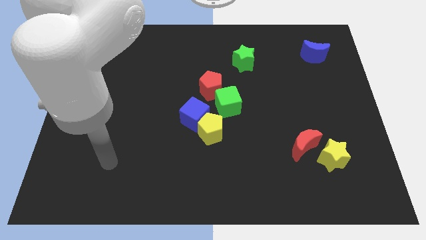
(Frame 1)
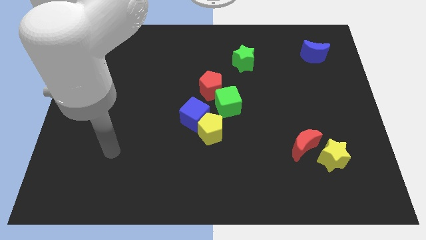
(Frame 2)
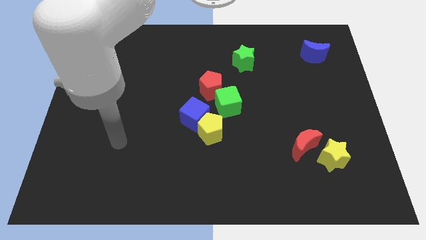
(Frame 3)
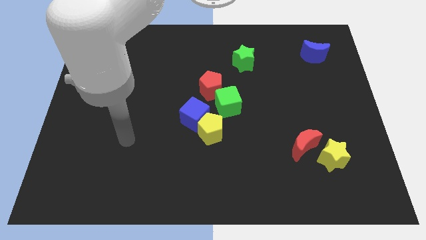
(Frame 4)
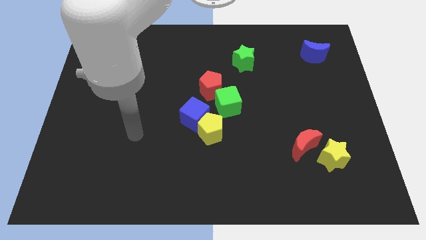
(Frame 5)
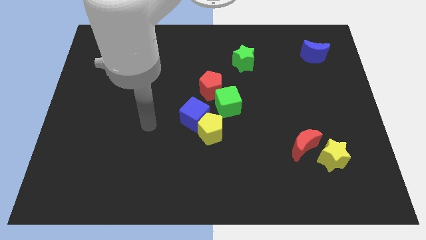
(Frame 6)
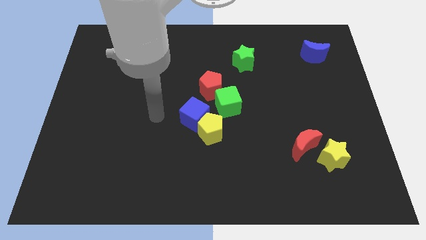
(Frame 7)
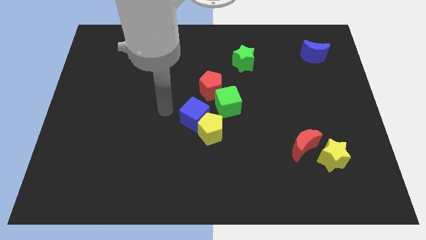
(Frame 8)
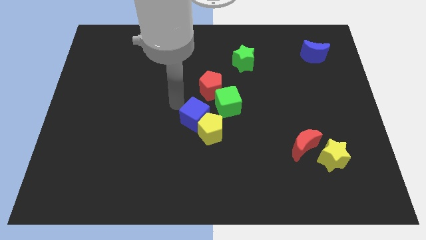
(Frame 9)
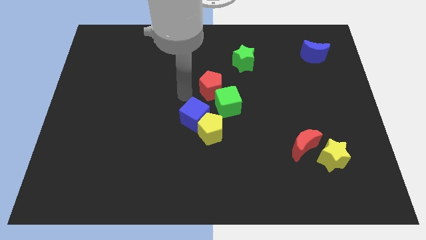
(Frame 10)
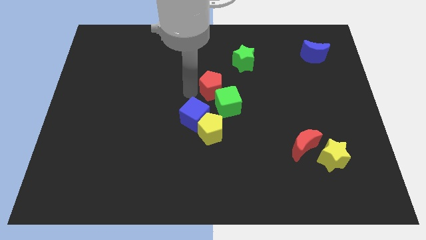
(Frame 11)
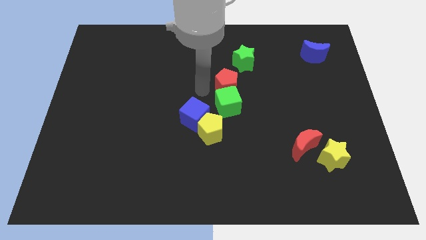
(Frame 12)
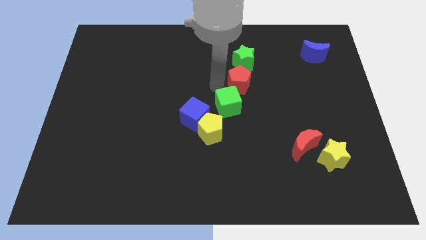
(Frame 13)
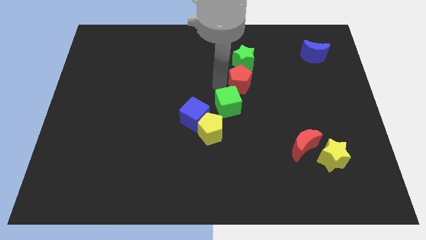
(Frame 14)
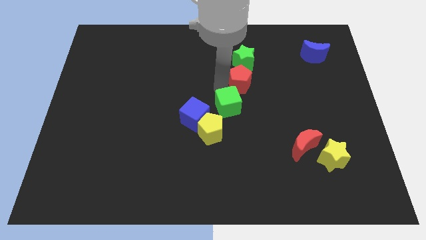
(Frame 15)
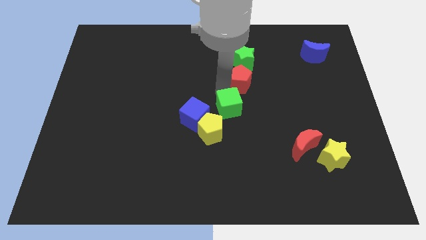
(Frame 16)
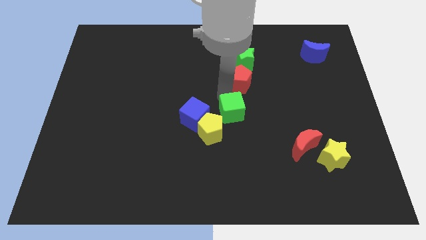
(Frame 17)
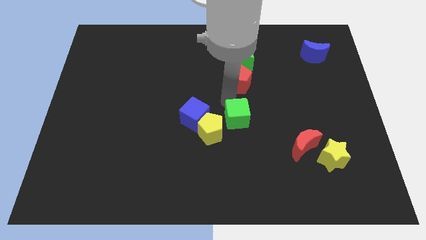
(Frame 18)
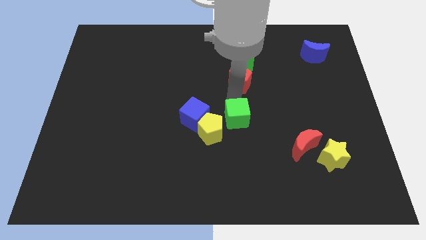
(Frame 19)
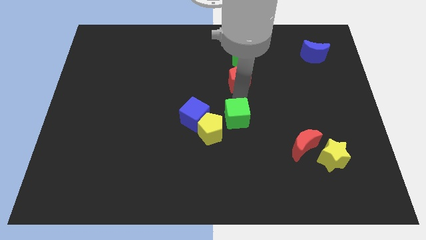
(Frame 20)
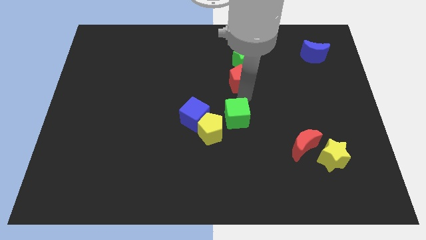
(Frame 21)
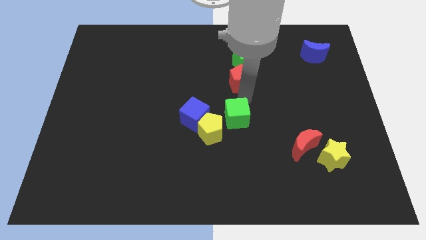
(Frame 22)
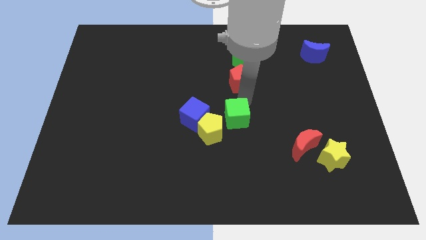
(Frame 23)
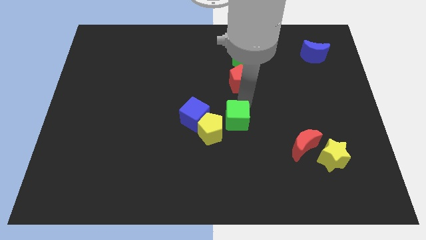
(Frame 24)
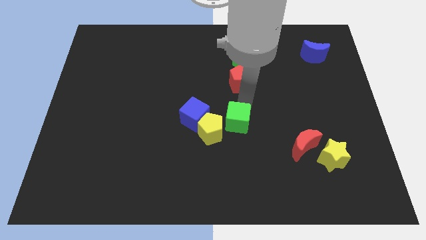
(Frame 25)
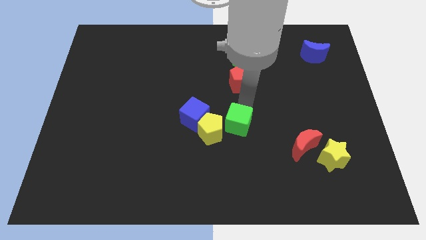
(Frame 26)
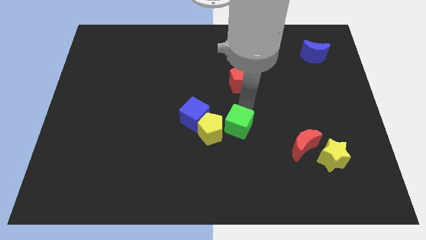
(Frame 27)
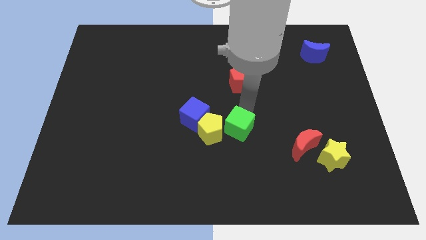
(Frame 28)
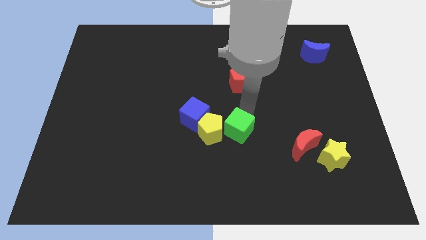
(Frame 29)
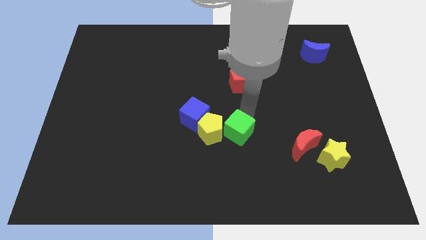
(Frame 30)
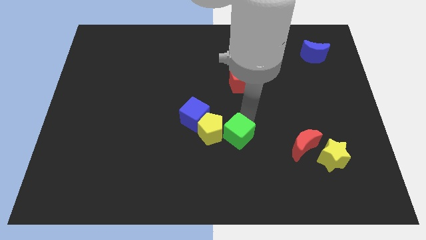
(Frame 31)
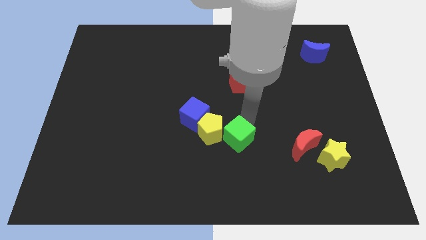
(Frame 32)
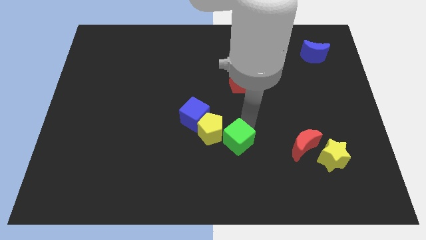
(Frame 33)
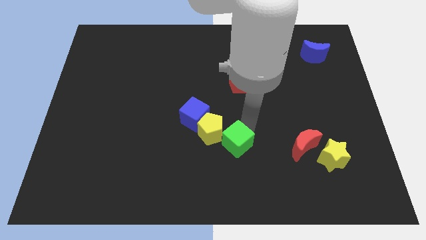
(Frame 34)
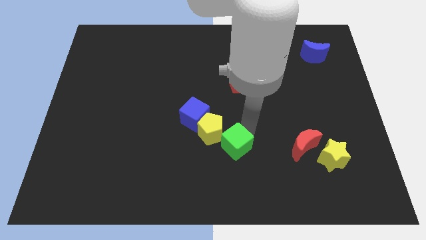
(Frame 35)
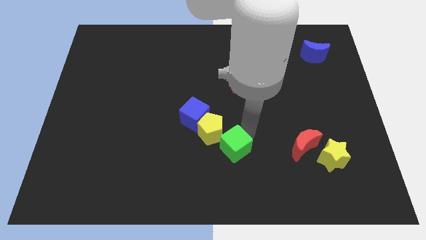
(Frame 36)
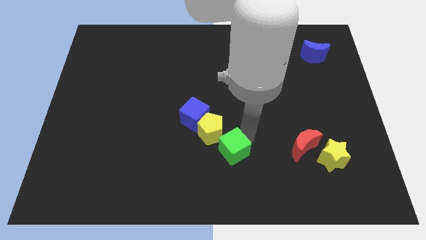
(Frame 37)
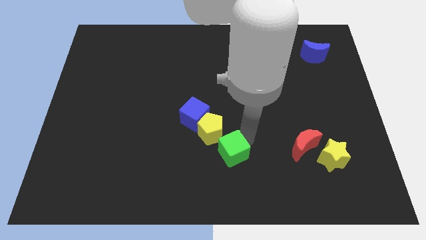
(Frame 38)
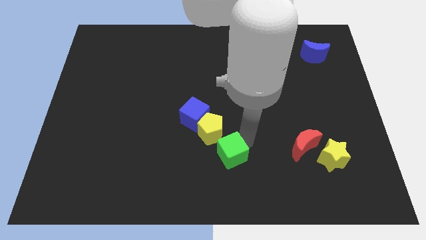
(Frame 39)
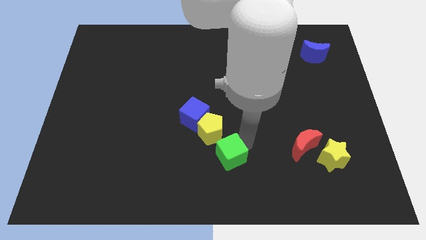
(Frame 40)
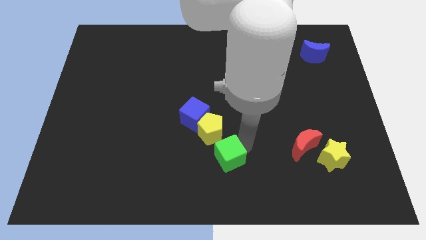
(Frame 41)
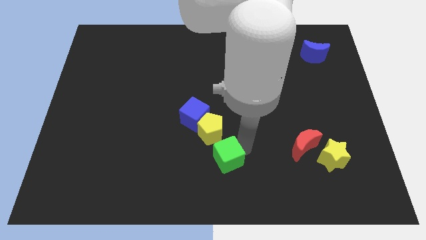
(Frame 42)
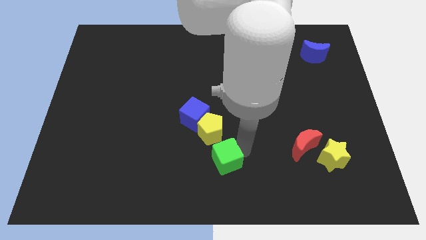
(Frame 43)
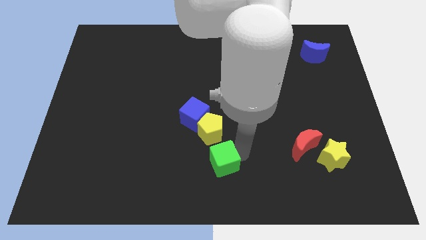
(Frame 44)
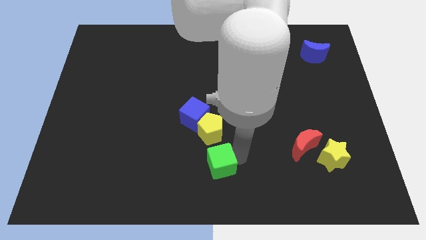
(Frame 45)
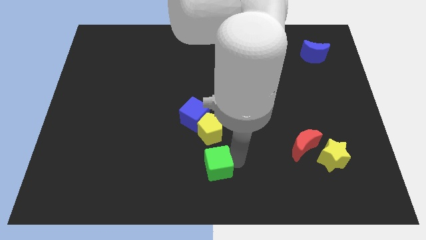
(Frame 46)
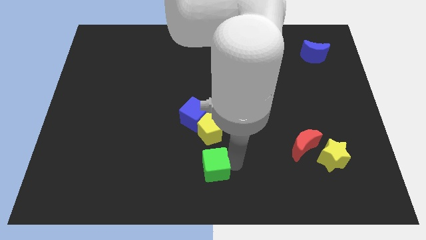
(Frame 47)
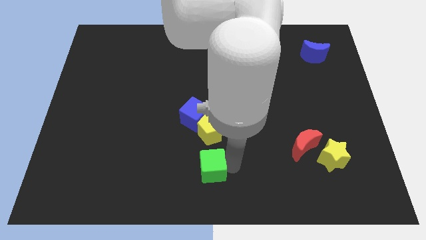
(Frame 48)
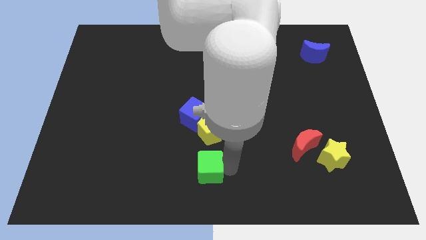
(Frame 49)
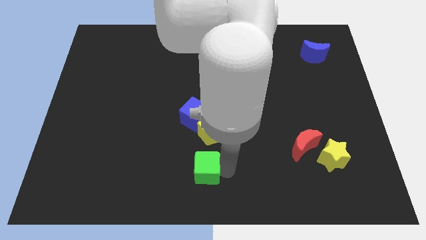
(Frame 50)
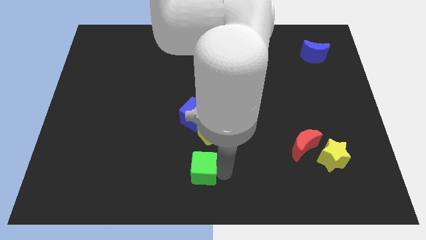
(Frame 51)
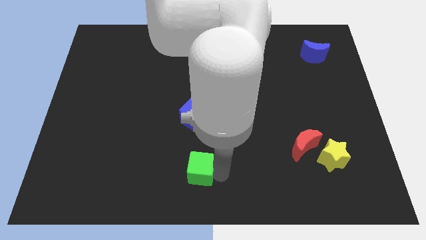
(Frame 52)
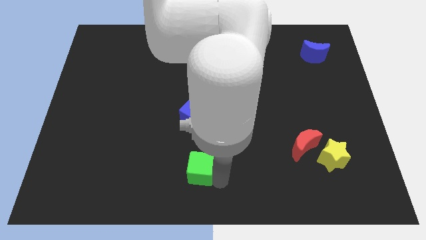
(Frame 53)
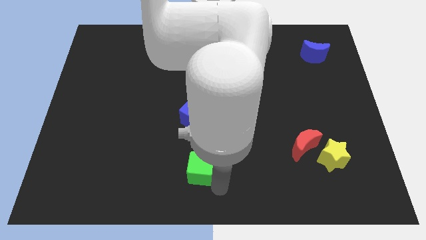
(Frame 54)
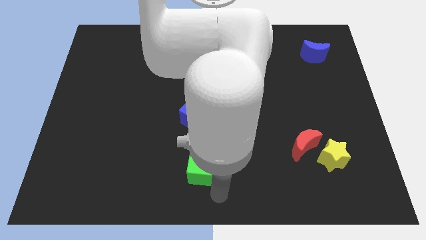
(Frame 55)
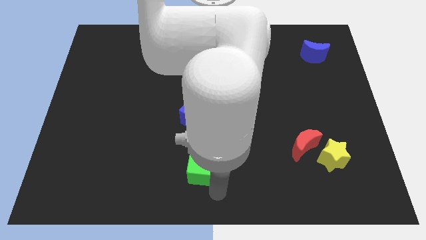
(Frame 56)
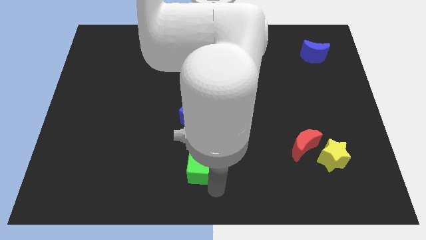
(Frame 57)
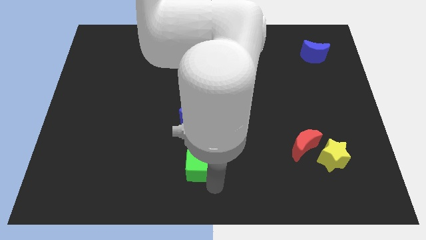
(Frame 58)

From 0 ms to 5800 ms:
push the green cube to the bottom left side of the yellow pentagon
